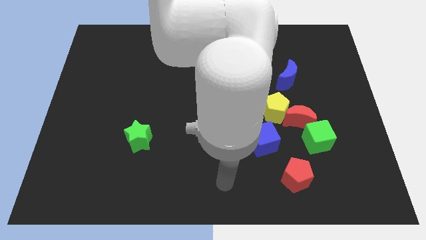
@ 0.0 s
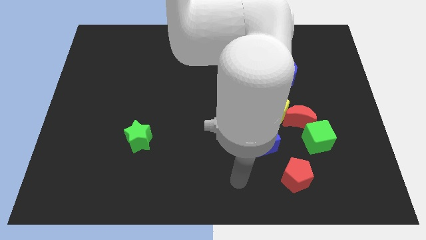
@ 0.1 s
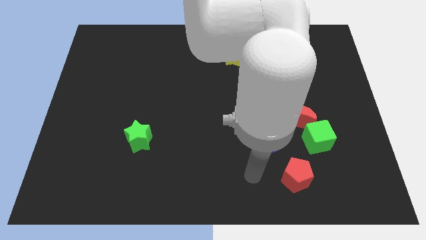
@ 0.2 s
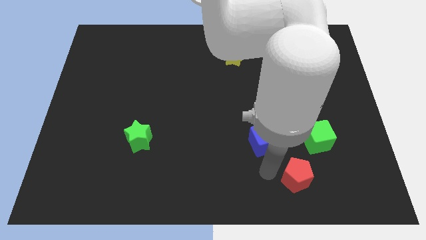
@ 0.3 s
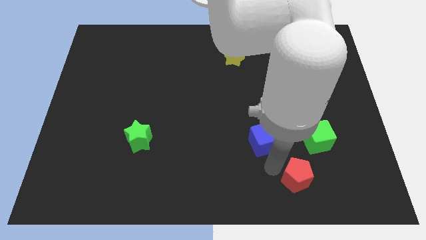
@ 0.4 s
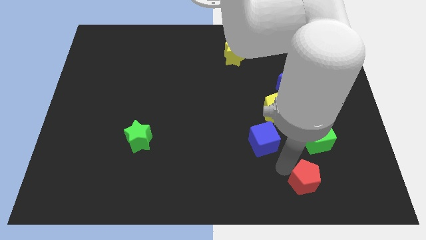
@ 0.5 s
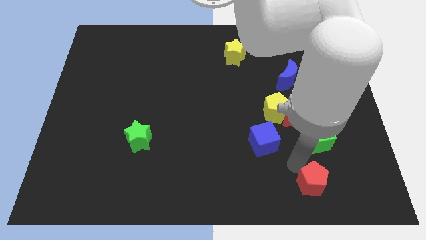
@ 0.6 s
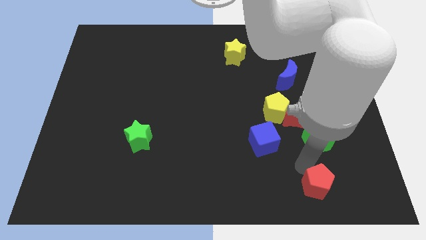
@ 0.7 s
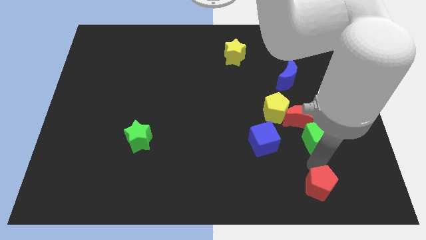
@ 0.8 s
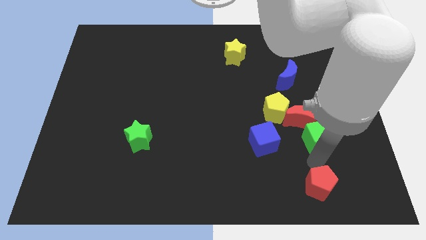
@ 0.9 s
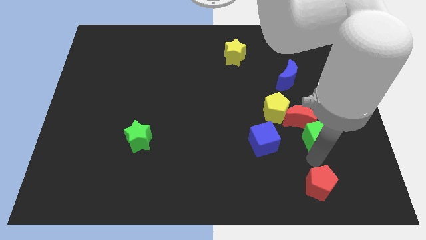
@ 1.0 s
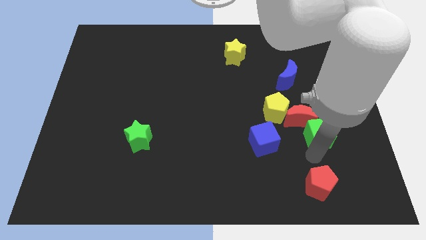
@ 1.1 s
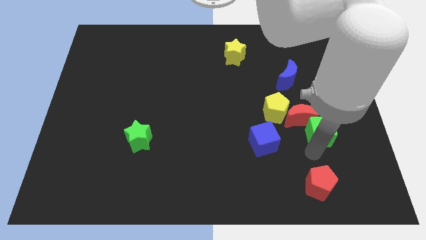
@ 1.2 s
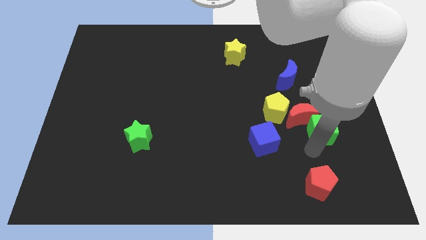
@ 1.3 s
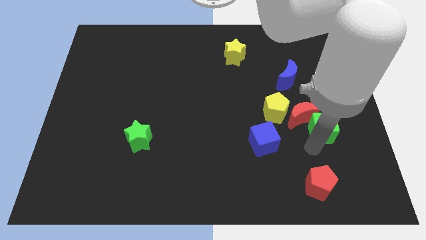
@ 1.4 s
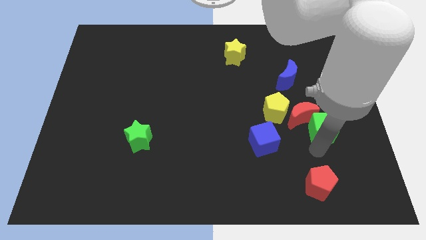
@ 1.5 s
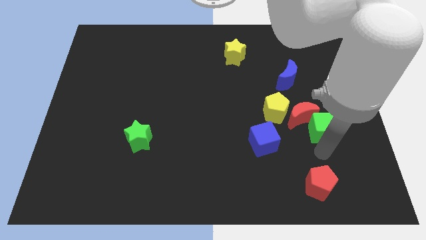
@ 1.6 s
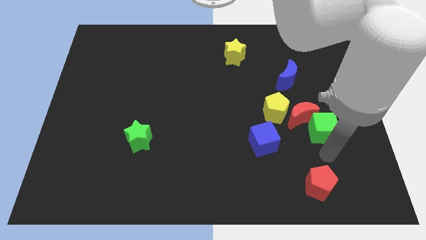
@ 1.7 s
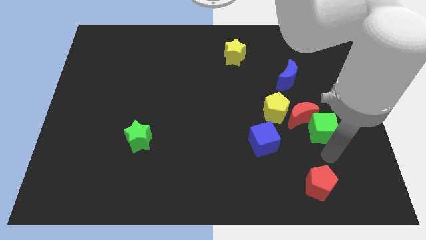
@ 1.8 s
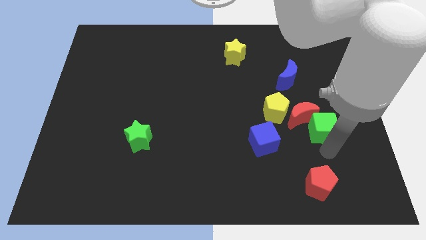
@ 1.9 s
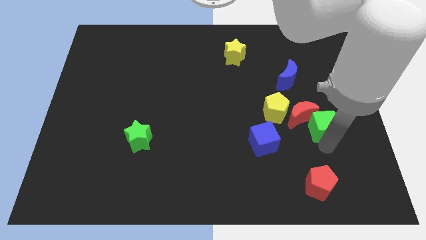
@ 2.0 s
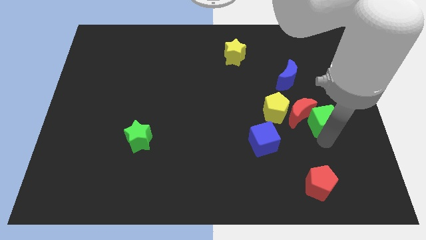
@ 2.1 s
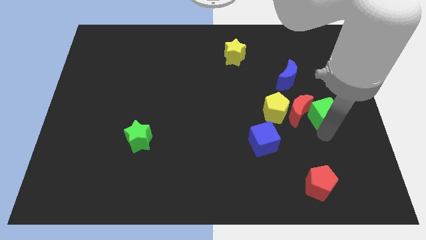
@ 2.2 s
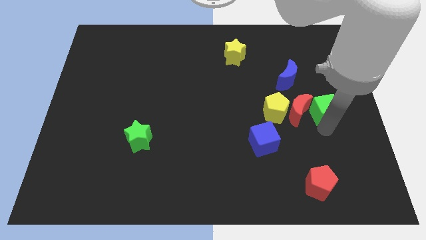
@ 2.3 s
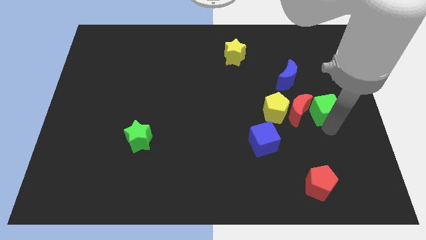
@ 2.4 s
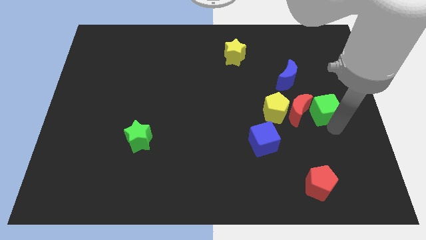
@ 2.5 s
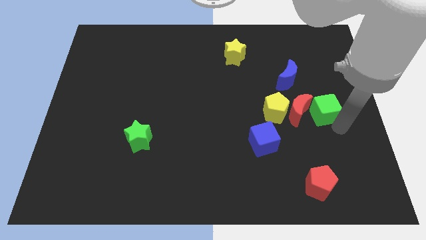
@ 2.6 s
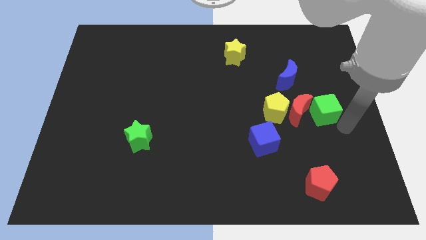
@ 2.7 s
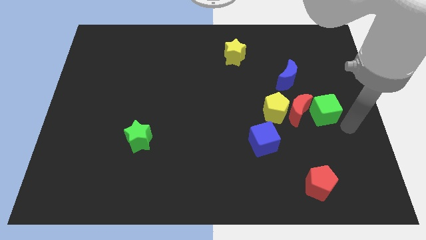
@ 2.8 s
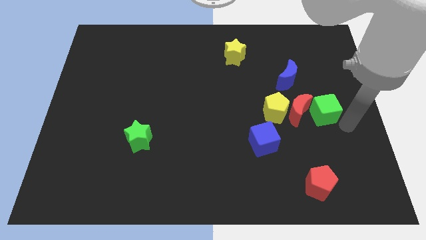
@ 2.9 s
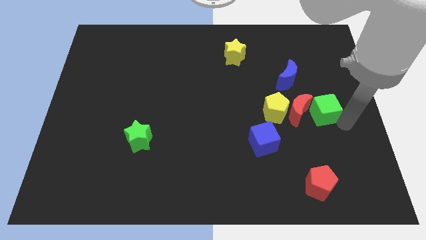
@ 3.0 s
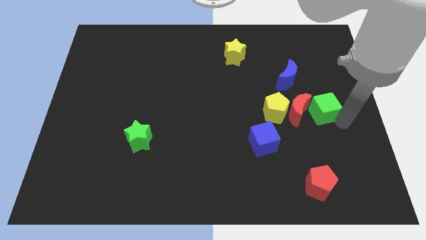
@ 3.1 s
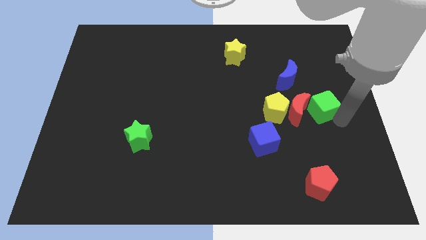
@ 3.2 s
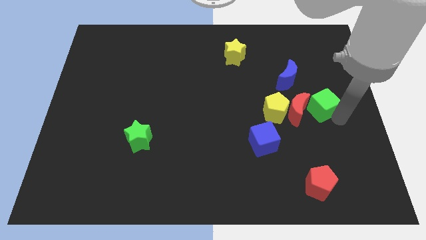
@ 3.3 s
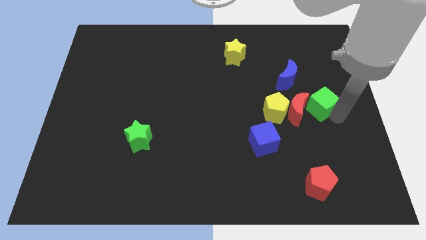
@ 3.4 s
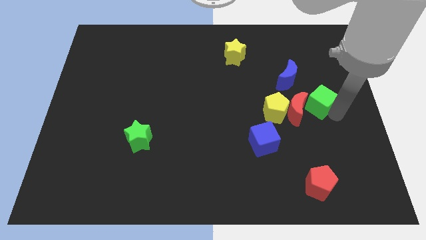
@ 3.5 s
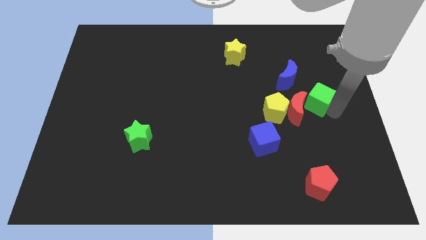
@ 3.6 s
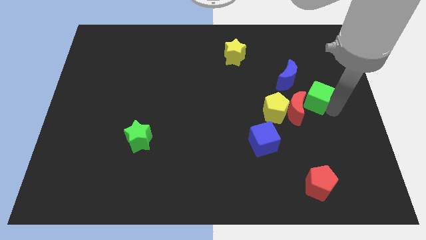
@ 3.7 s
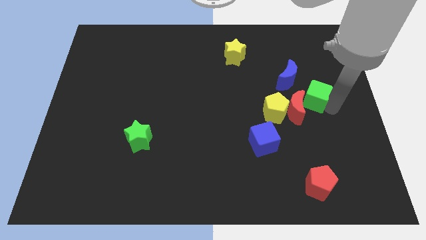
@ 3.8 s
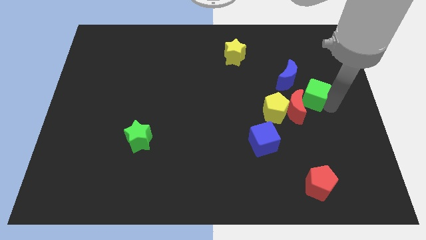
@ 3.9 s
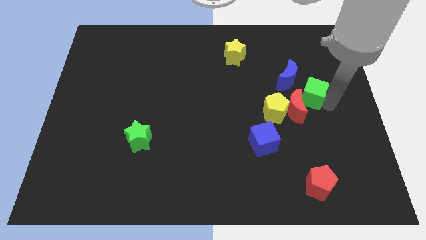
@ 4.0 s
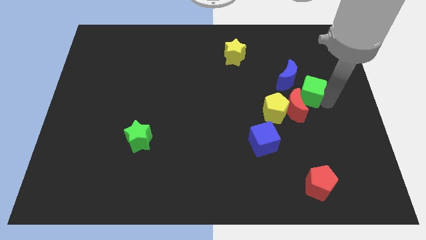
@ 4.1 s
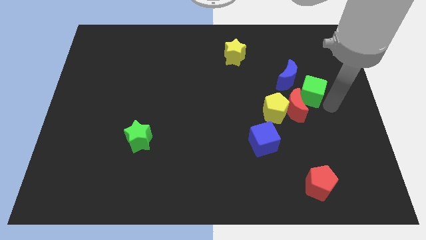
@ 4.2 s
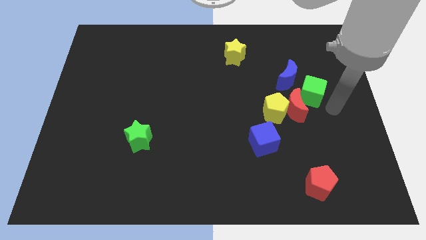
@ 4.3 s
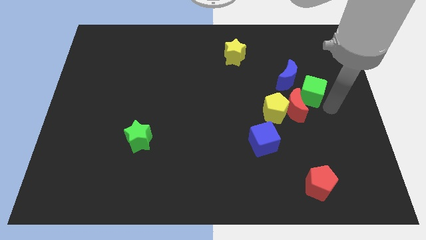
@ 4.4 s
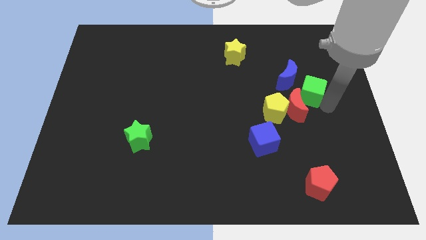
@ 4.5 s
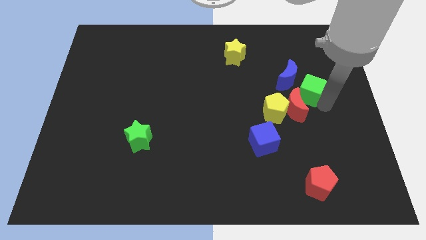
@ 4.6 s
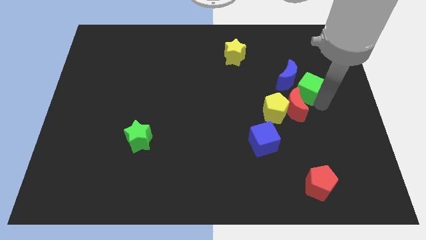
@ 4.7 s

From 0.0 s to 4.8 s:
slide the green cube next to the blue moon

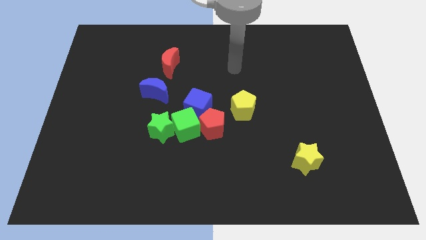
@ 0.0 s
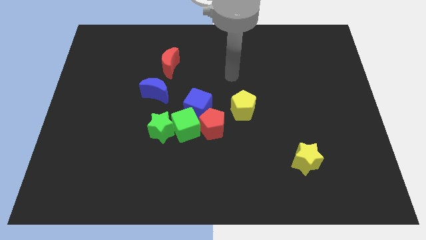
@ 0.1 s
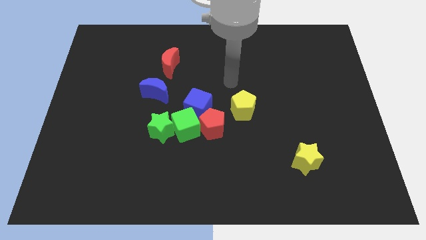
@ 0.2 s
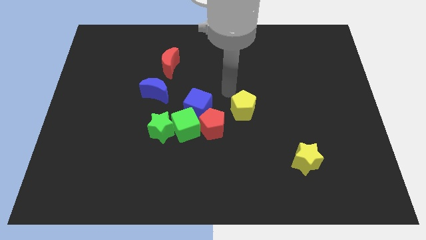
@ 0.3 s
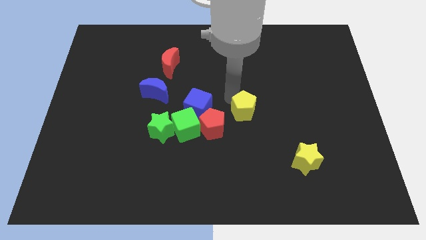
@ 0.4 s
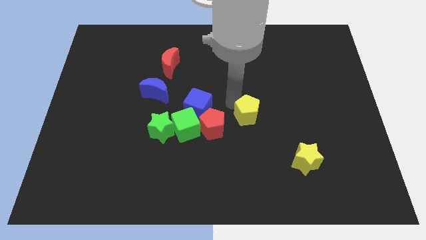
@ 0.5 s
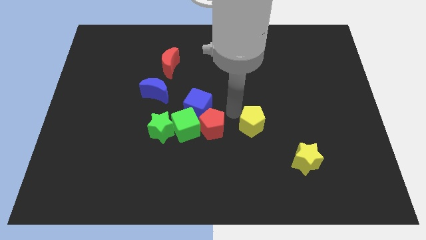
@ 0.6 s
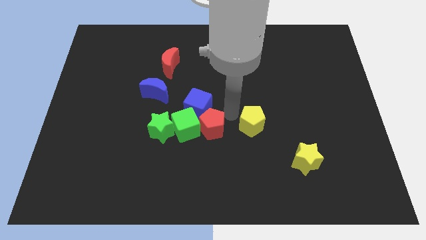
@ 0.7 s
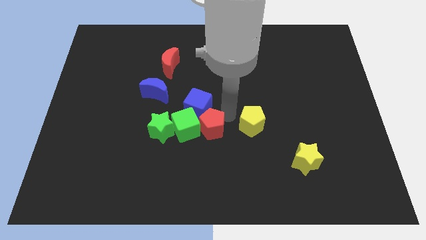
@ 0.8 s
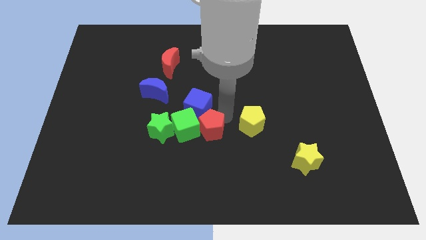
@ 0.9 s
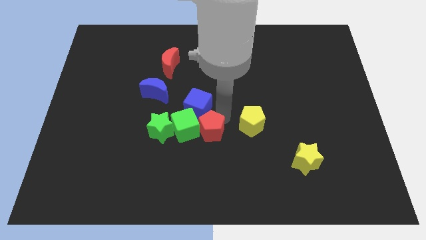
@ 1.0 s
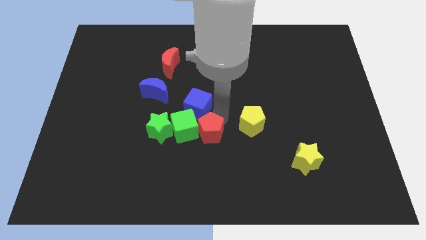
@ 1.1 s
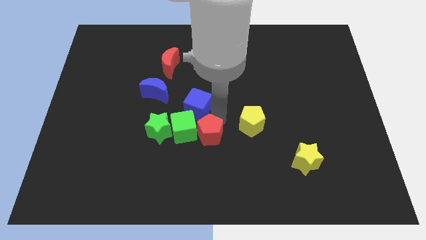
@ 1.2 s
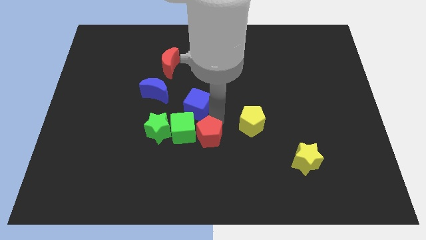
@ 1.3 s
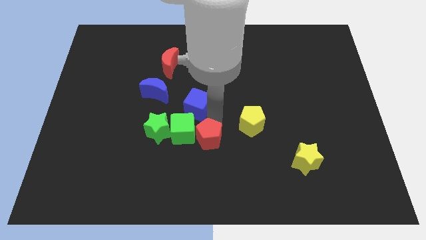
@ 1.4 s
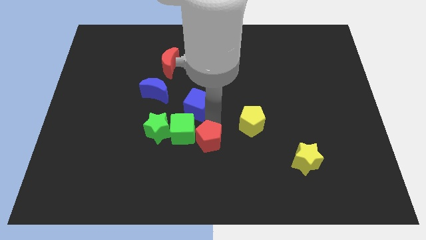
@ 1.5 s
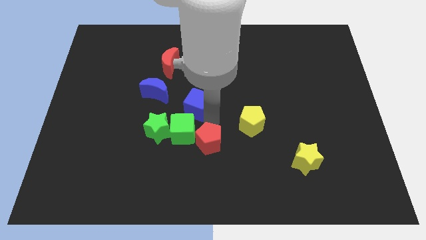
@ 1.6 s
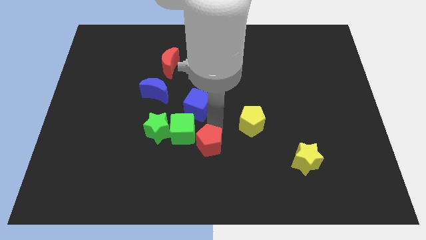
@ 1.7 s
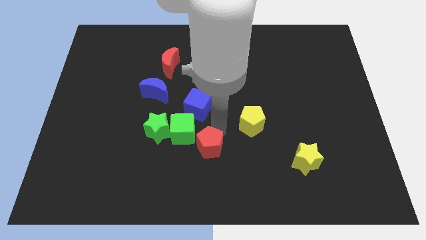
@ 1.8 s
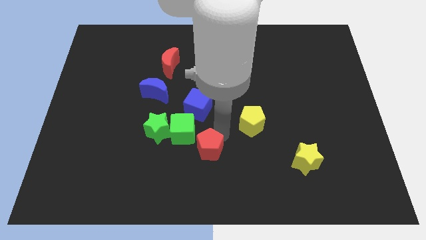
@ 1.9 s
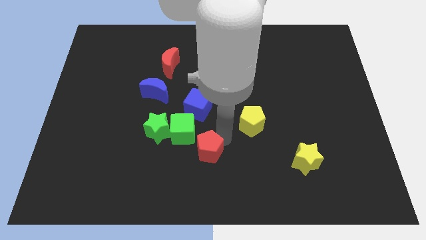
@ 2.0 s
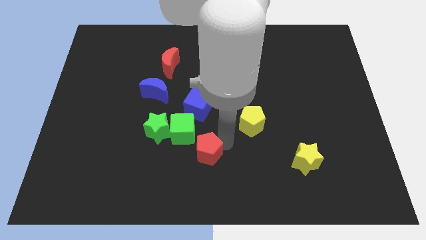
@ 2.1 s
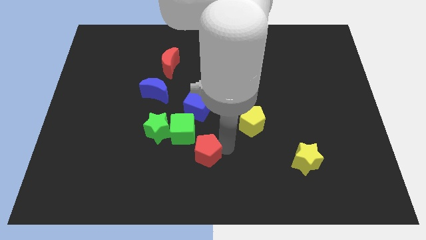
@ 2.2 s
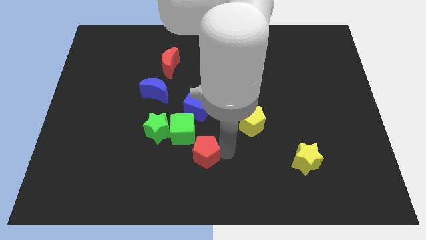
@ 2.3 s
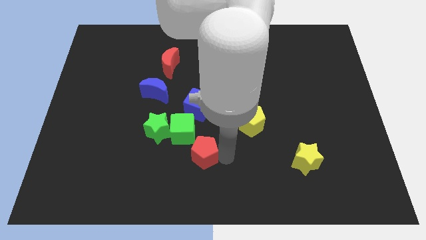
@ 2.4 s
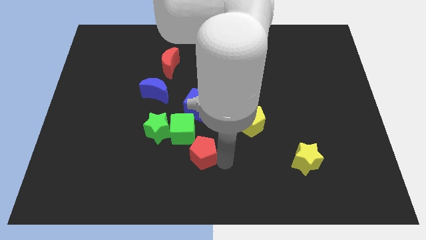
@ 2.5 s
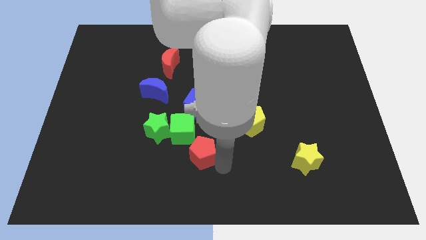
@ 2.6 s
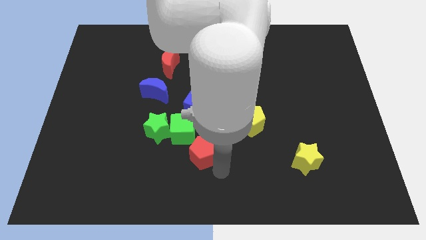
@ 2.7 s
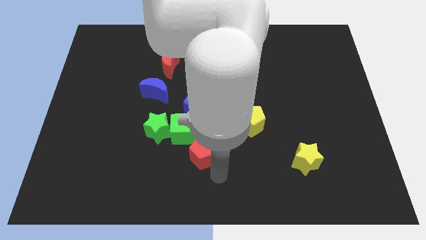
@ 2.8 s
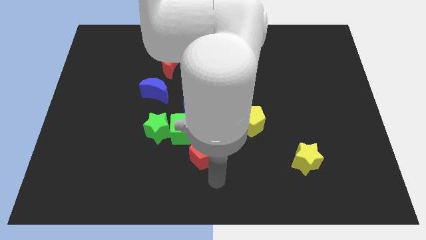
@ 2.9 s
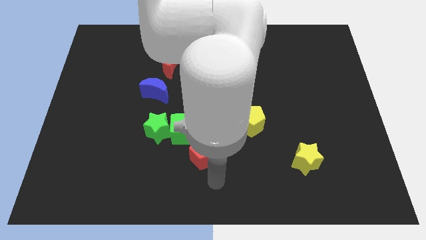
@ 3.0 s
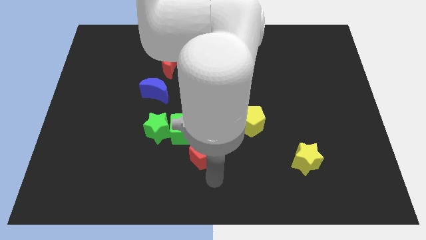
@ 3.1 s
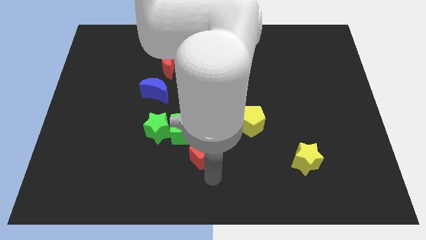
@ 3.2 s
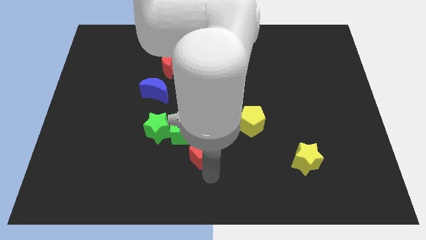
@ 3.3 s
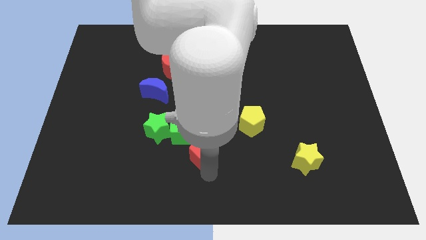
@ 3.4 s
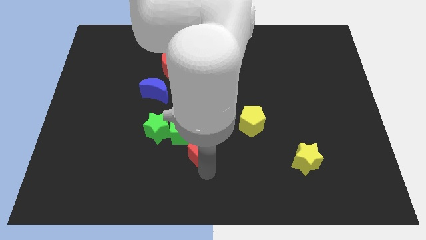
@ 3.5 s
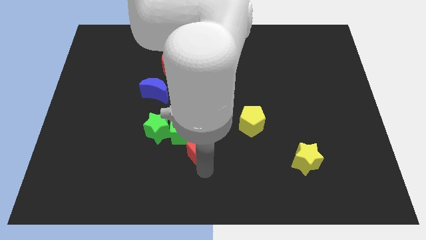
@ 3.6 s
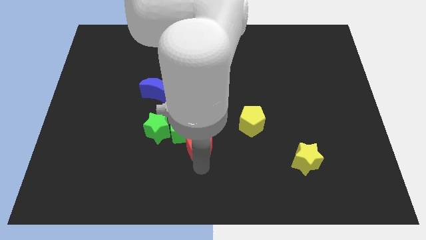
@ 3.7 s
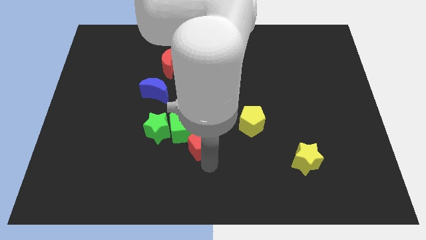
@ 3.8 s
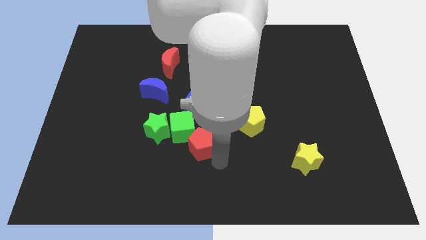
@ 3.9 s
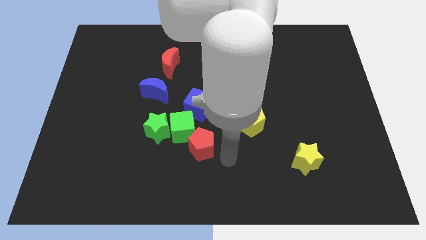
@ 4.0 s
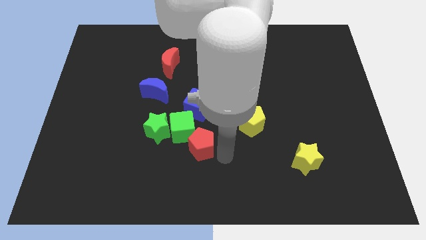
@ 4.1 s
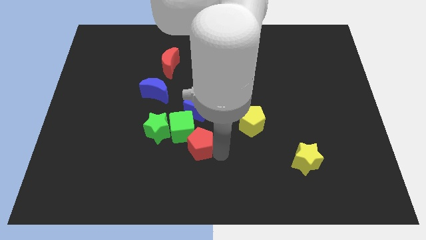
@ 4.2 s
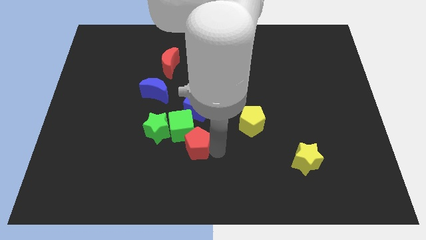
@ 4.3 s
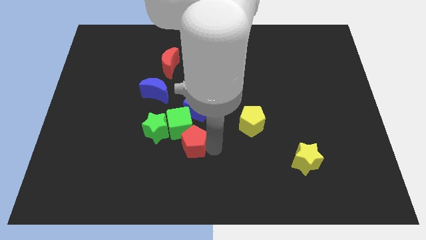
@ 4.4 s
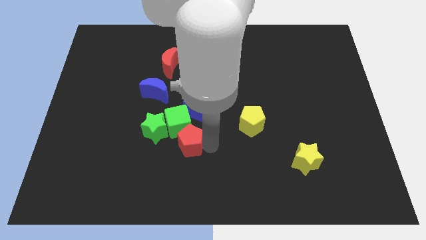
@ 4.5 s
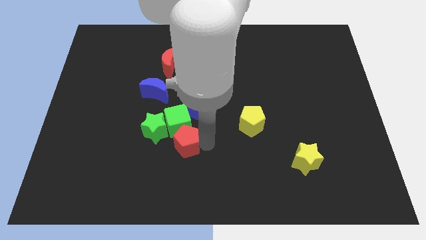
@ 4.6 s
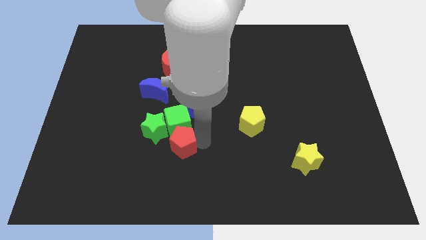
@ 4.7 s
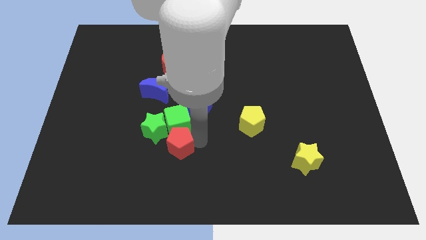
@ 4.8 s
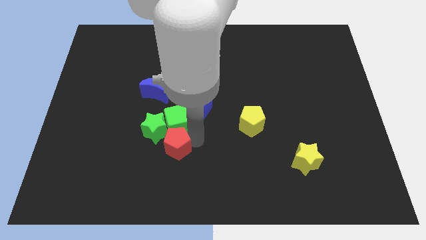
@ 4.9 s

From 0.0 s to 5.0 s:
put the red pentagon next to the green star
